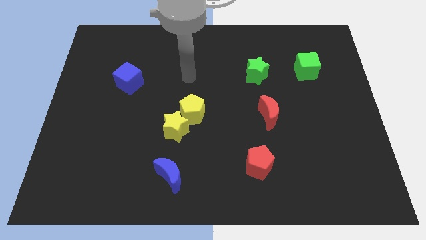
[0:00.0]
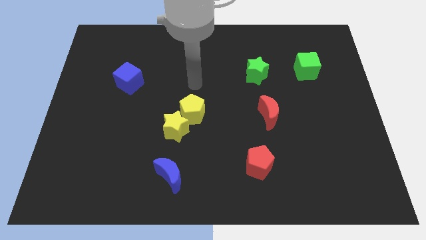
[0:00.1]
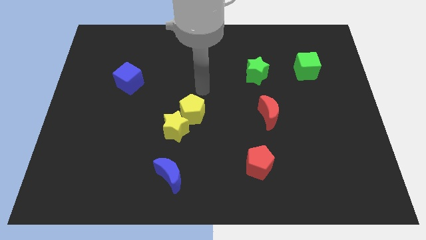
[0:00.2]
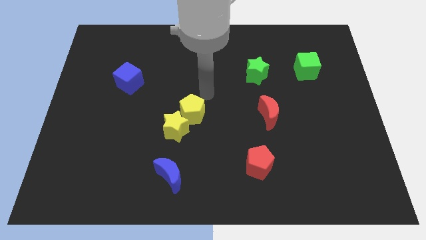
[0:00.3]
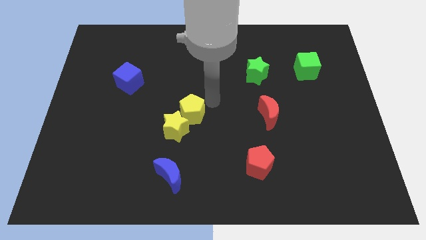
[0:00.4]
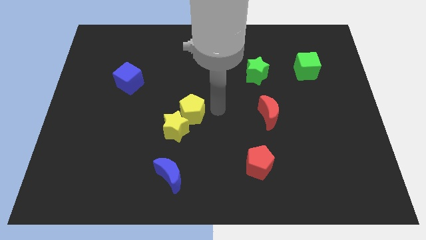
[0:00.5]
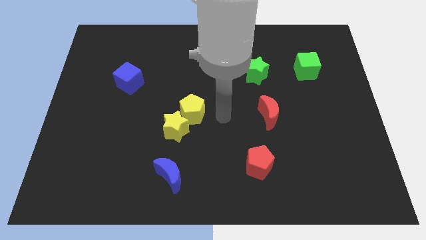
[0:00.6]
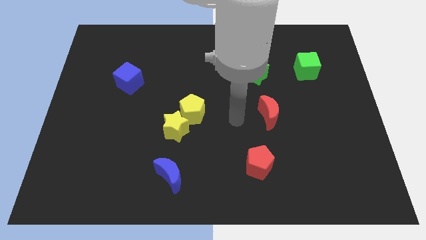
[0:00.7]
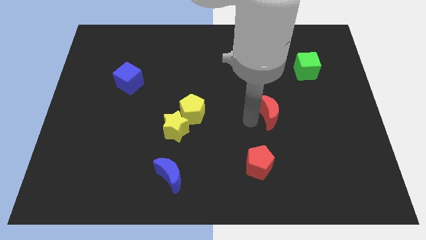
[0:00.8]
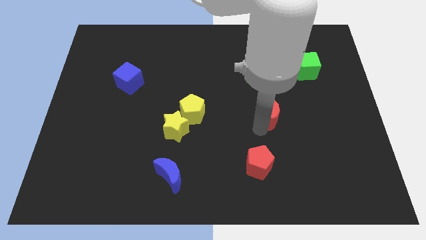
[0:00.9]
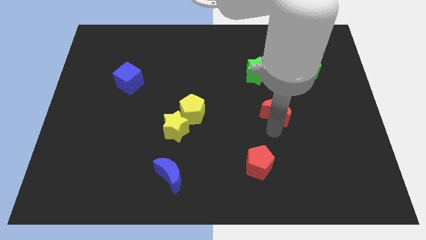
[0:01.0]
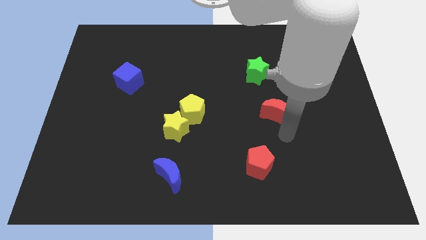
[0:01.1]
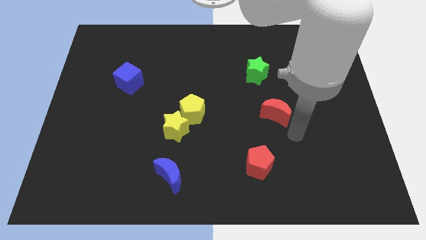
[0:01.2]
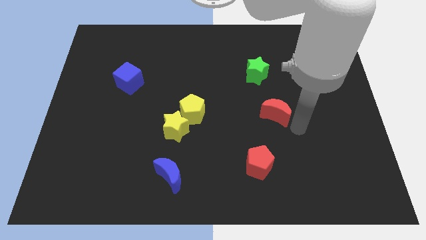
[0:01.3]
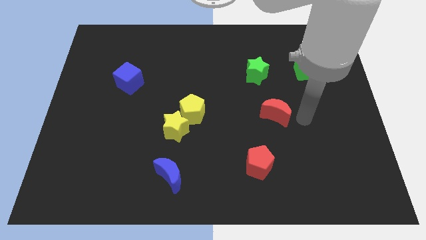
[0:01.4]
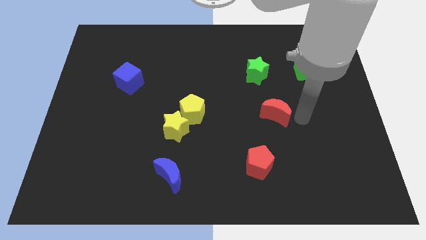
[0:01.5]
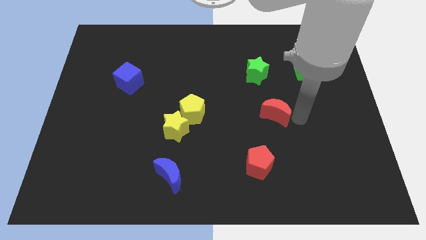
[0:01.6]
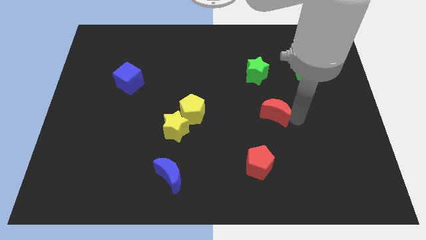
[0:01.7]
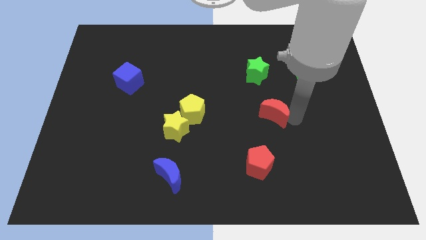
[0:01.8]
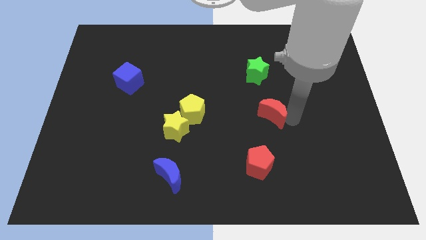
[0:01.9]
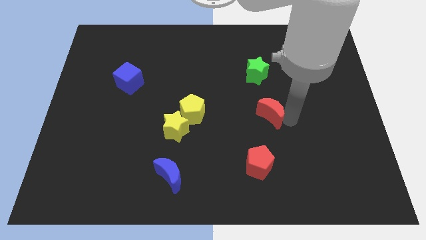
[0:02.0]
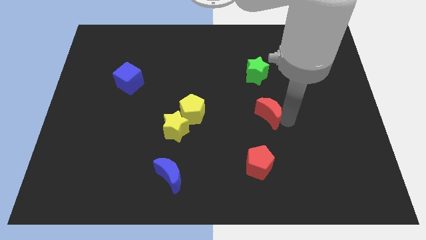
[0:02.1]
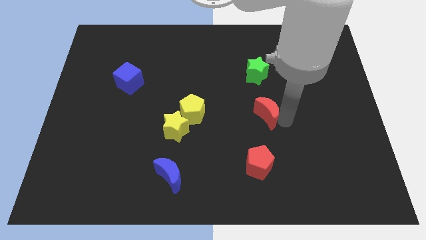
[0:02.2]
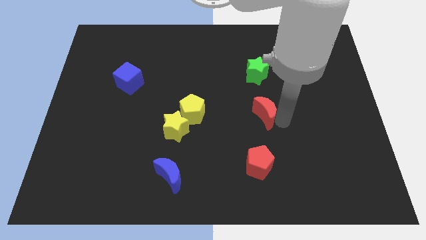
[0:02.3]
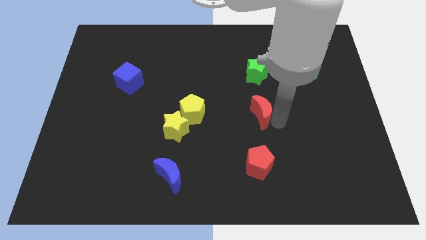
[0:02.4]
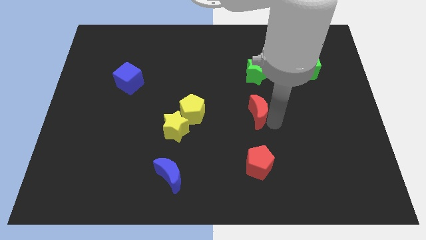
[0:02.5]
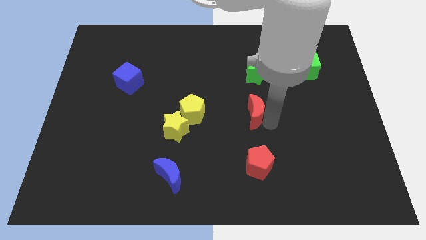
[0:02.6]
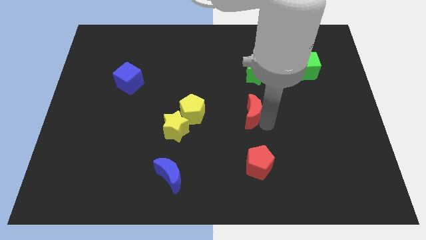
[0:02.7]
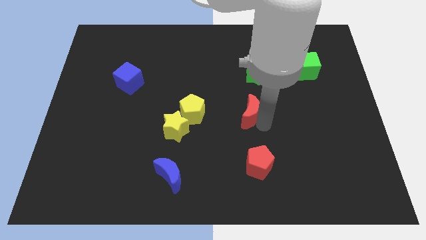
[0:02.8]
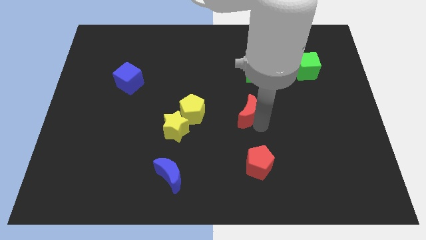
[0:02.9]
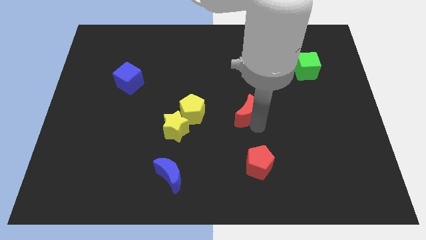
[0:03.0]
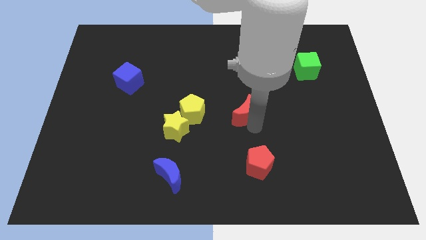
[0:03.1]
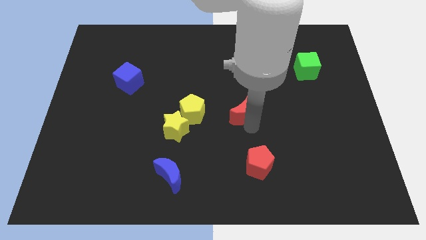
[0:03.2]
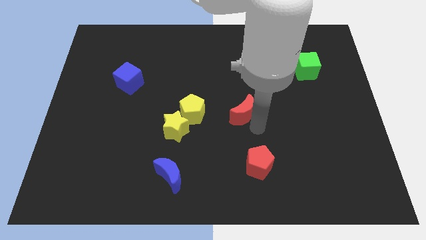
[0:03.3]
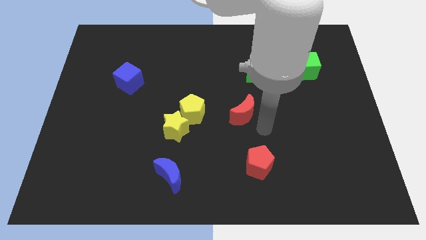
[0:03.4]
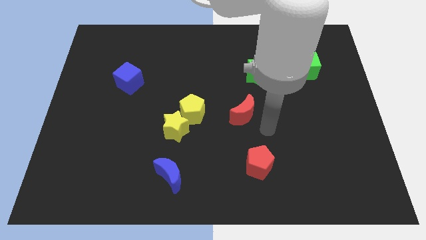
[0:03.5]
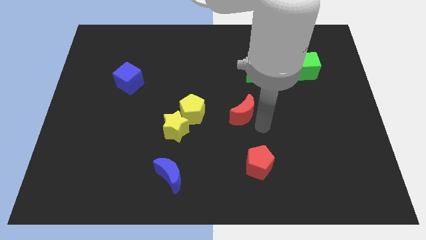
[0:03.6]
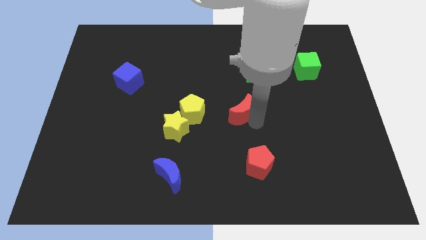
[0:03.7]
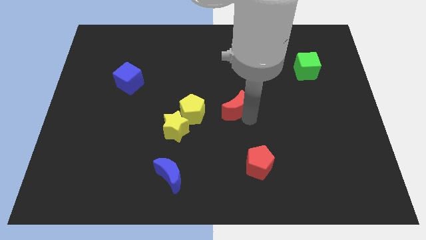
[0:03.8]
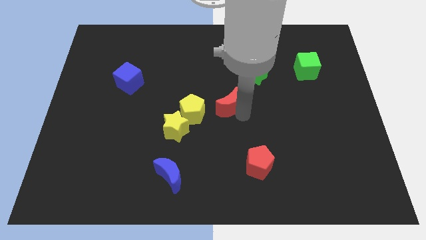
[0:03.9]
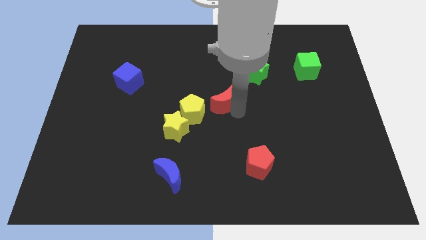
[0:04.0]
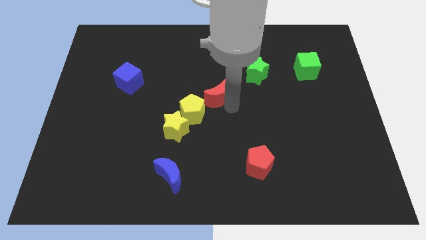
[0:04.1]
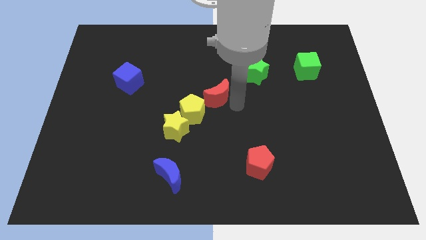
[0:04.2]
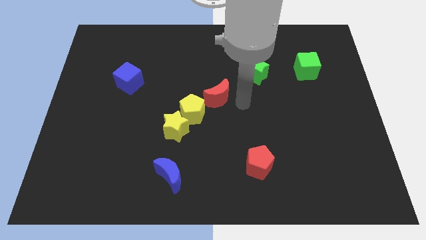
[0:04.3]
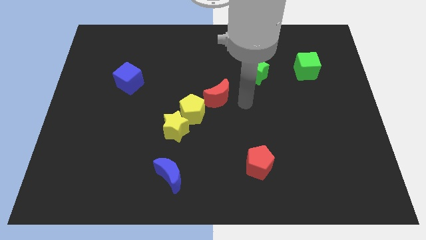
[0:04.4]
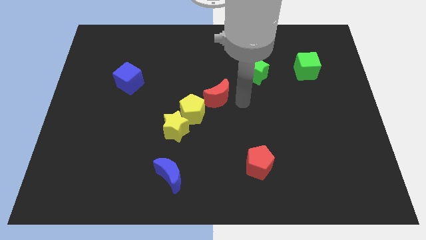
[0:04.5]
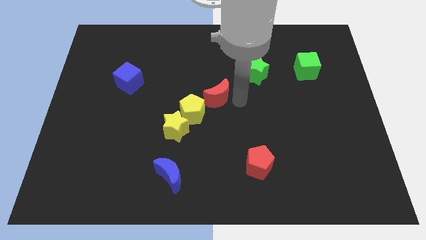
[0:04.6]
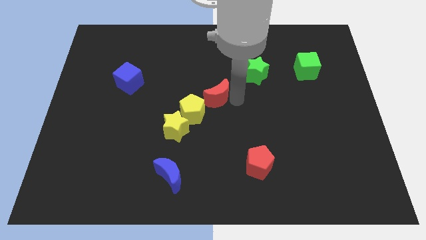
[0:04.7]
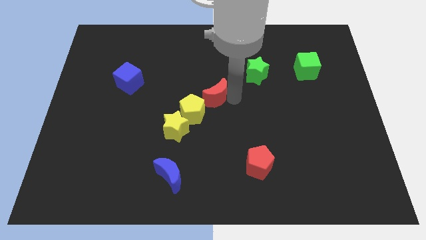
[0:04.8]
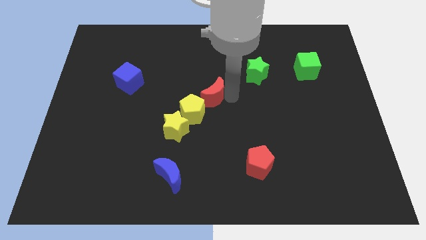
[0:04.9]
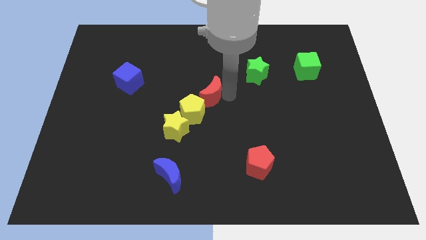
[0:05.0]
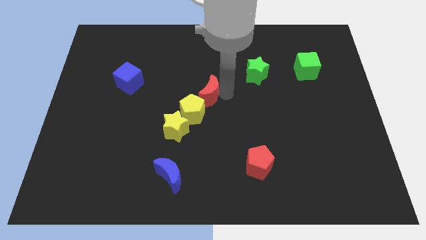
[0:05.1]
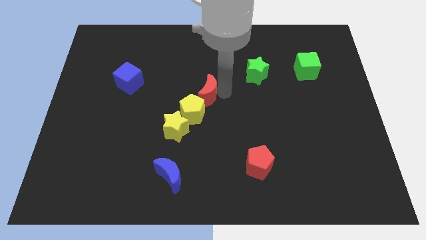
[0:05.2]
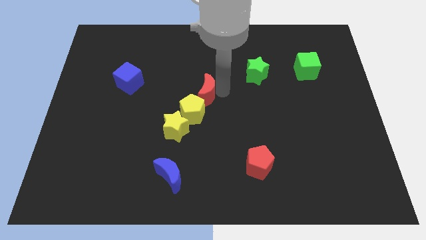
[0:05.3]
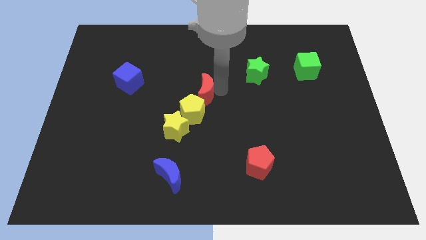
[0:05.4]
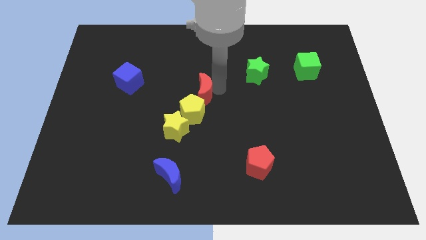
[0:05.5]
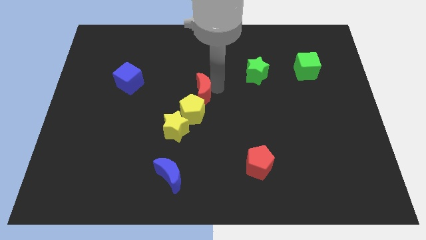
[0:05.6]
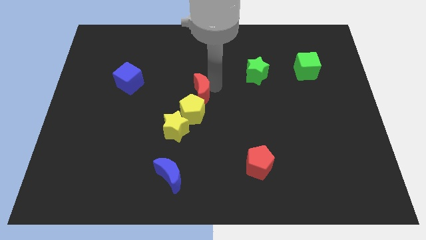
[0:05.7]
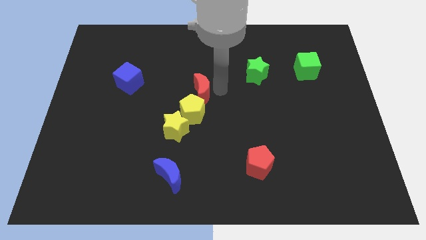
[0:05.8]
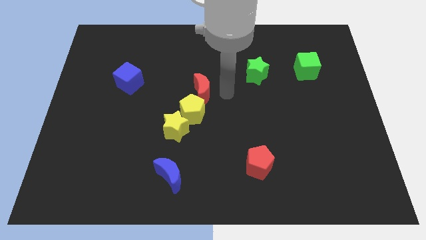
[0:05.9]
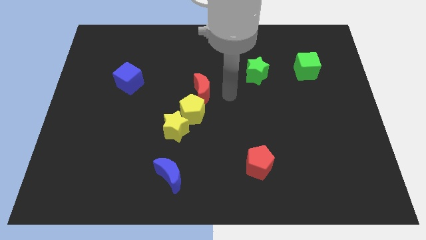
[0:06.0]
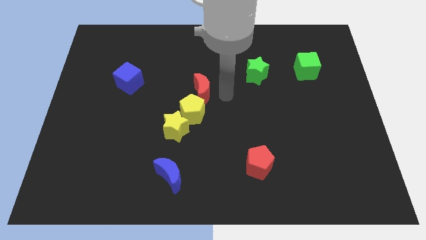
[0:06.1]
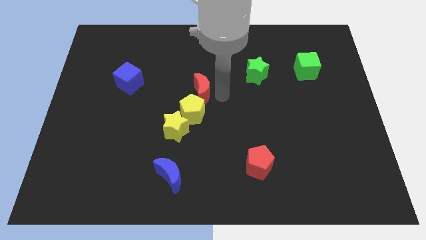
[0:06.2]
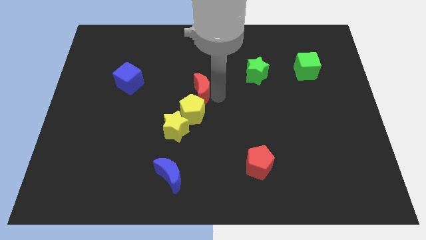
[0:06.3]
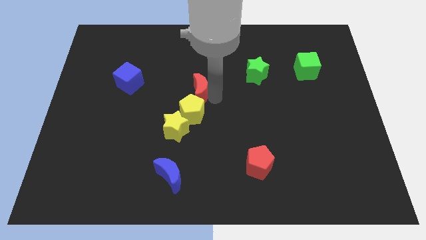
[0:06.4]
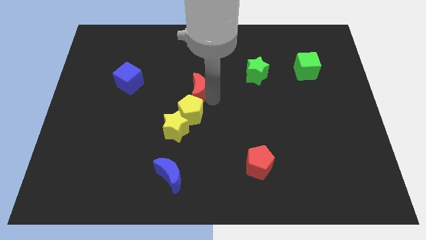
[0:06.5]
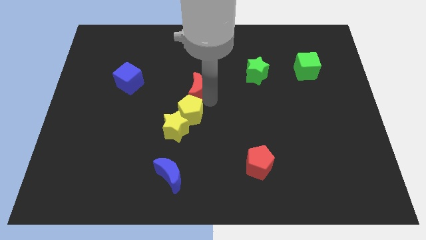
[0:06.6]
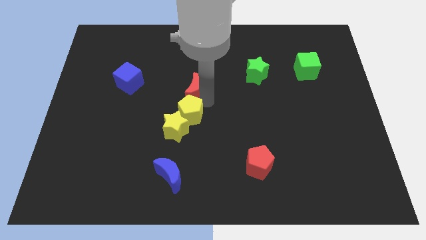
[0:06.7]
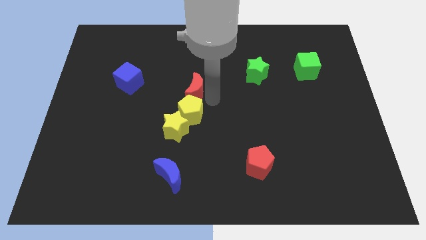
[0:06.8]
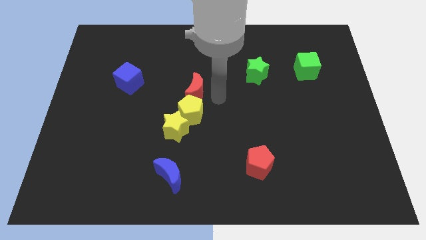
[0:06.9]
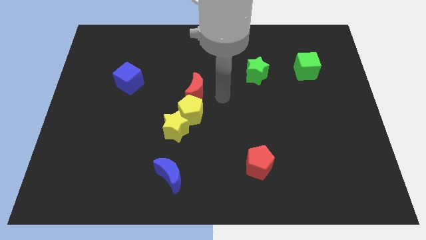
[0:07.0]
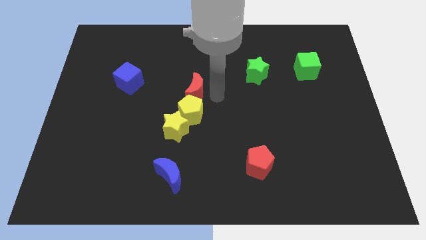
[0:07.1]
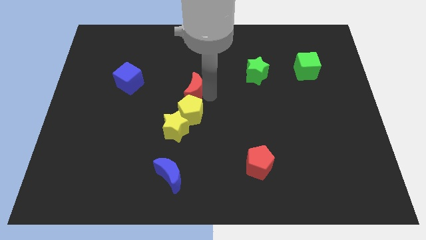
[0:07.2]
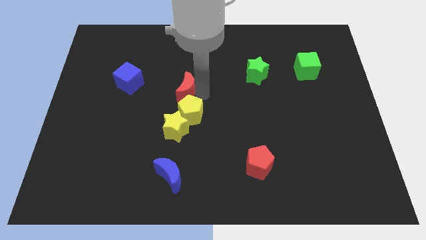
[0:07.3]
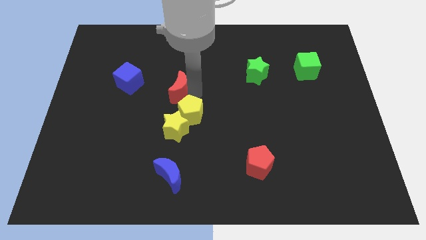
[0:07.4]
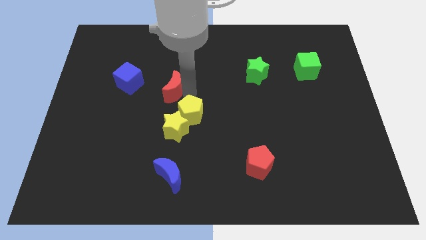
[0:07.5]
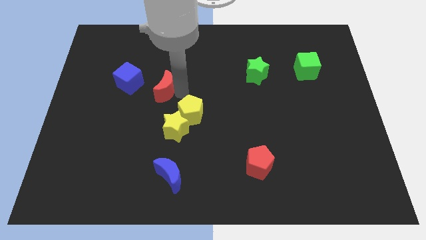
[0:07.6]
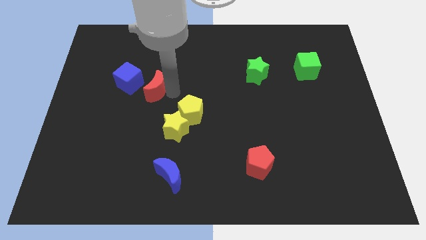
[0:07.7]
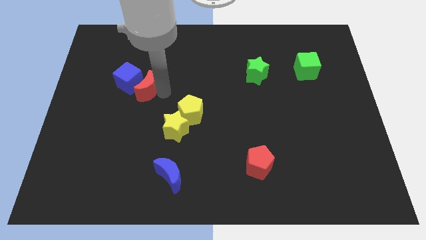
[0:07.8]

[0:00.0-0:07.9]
put the red moon to the blue cube

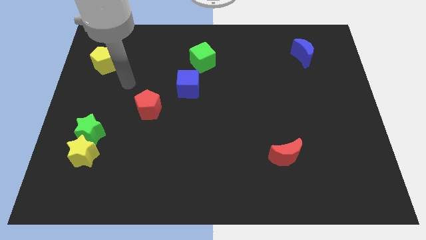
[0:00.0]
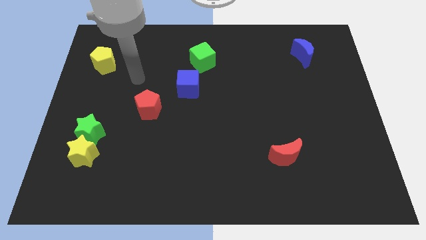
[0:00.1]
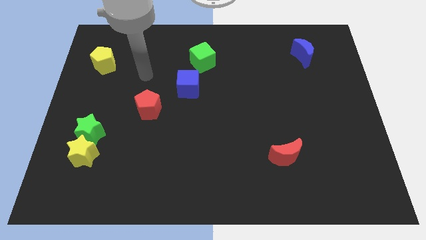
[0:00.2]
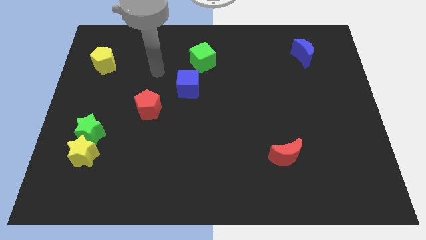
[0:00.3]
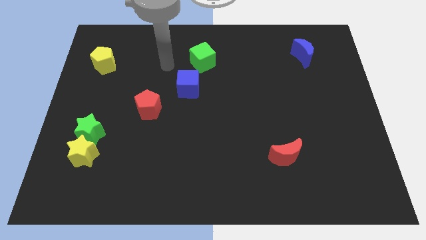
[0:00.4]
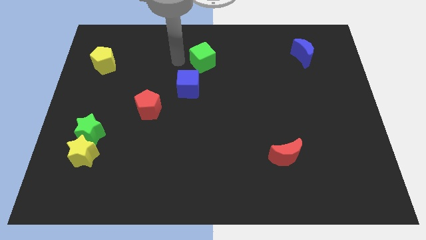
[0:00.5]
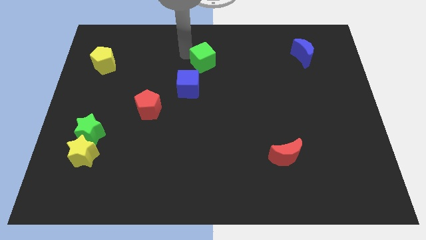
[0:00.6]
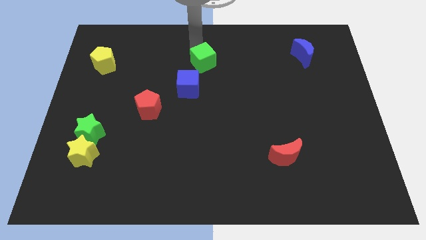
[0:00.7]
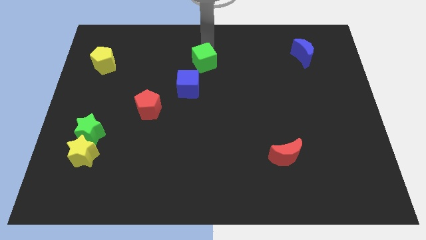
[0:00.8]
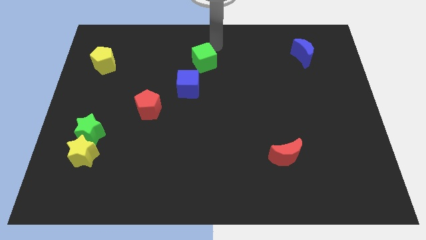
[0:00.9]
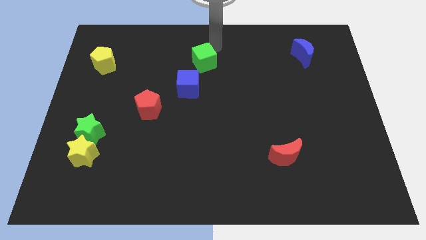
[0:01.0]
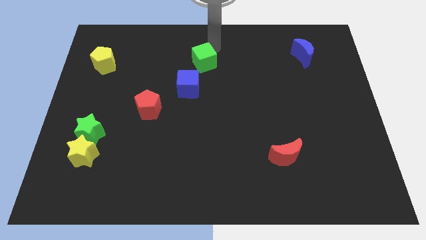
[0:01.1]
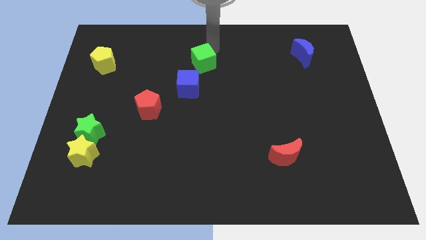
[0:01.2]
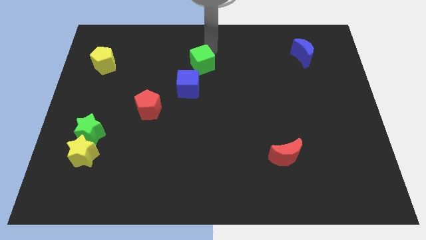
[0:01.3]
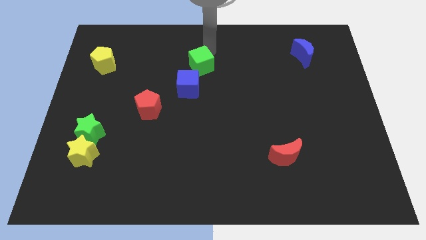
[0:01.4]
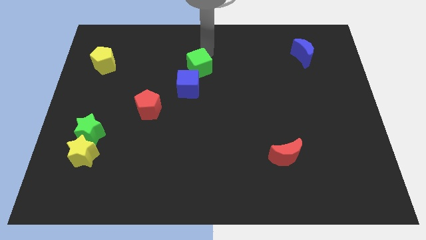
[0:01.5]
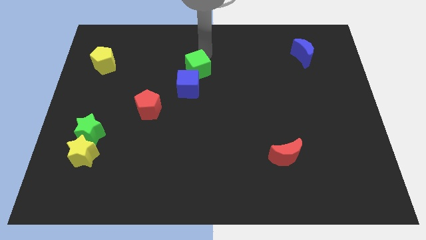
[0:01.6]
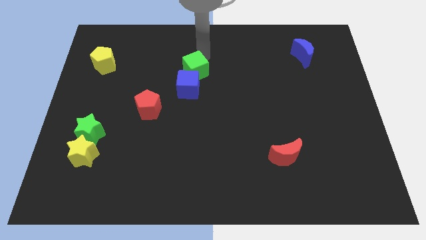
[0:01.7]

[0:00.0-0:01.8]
move the green cube towards the blue cube
